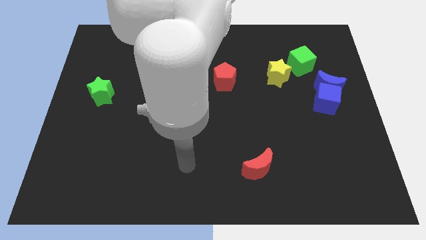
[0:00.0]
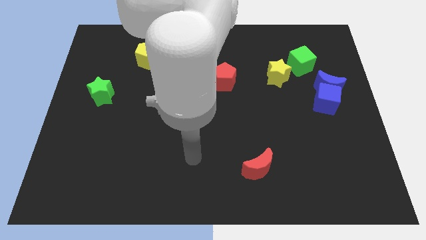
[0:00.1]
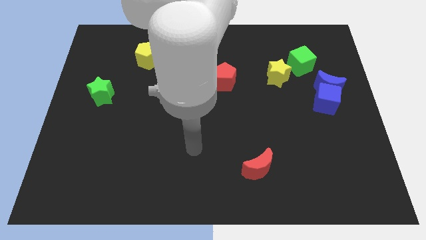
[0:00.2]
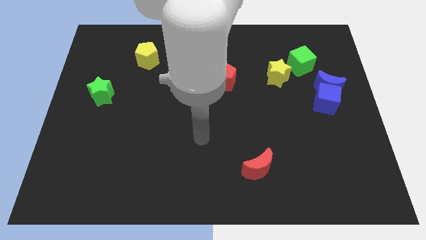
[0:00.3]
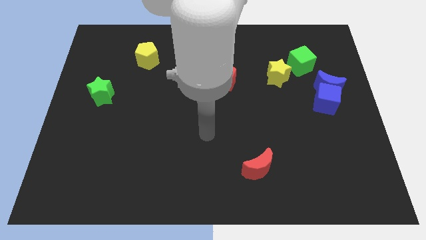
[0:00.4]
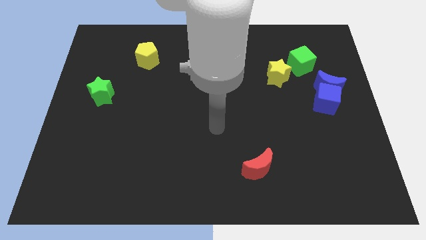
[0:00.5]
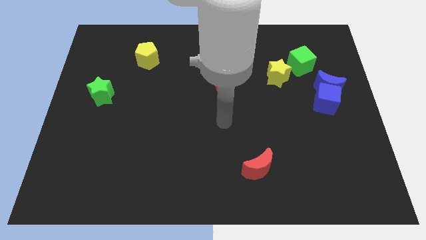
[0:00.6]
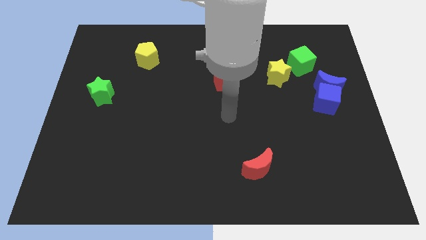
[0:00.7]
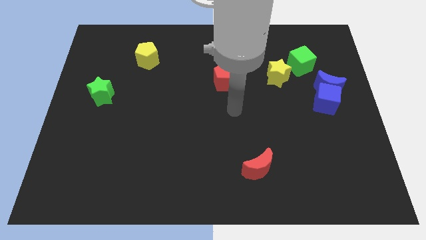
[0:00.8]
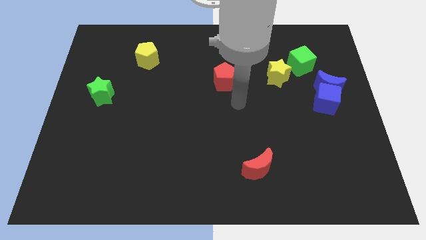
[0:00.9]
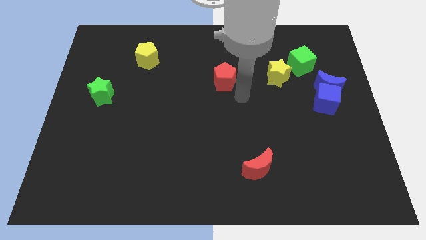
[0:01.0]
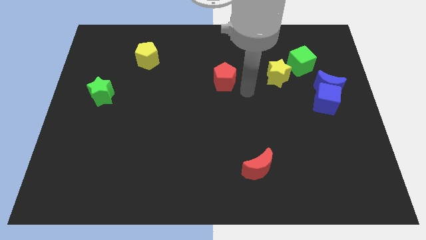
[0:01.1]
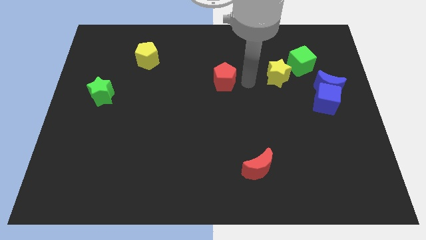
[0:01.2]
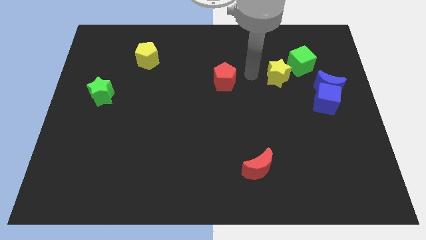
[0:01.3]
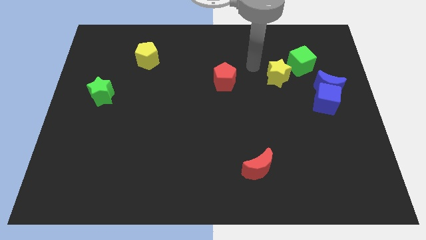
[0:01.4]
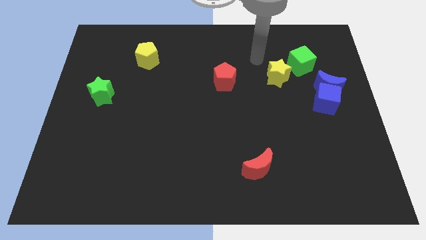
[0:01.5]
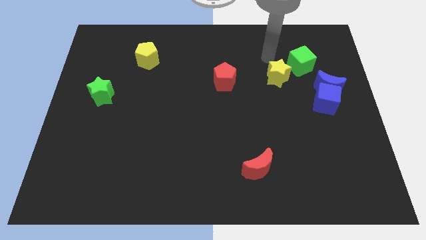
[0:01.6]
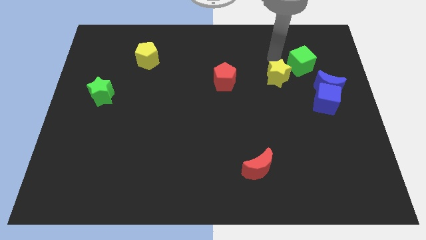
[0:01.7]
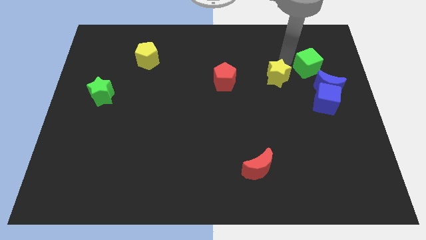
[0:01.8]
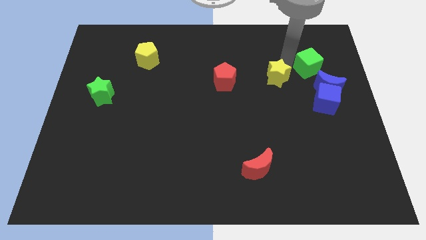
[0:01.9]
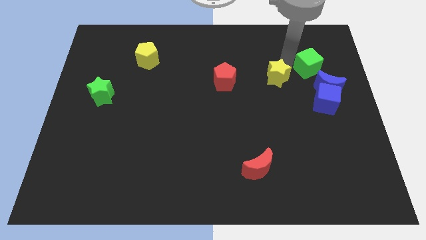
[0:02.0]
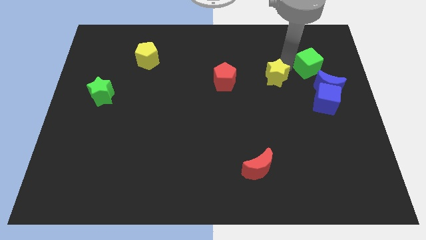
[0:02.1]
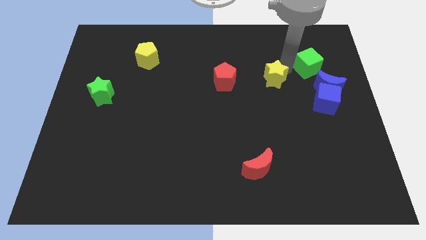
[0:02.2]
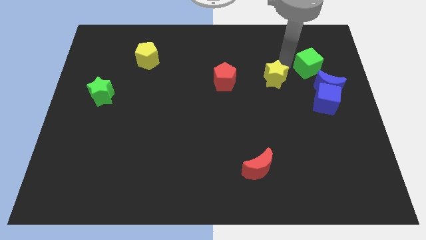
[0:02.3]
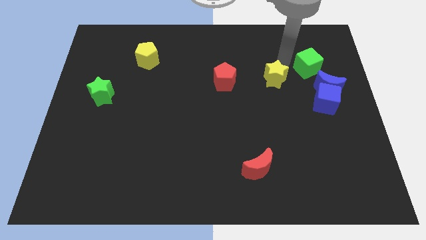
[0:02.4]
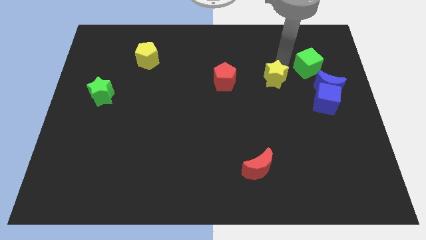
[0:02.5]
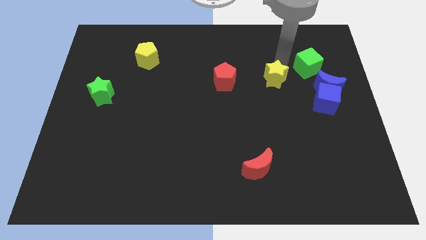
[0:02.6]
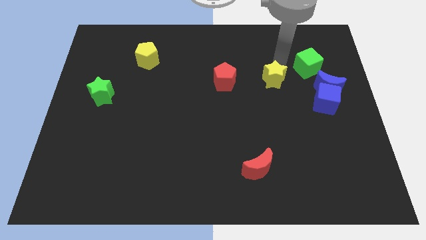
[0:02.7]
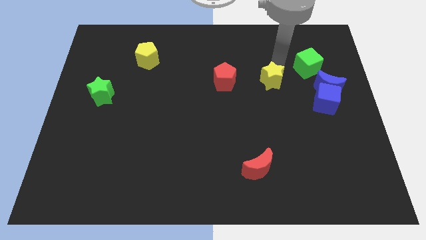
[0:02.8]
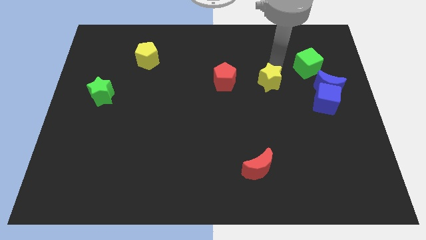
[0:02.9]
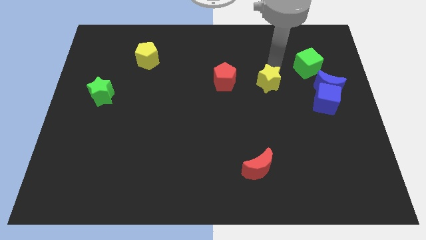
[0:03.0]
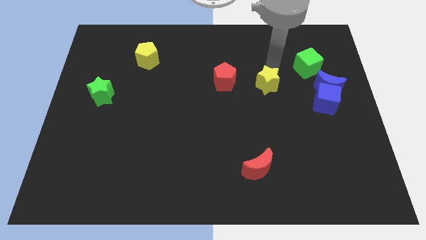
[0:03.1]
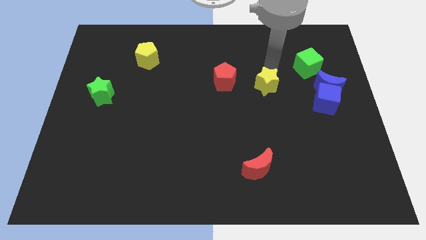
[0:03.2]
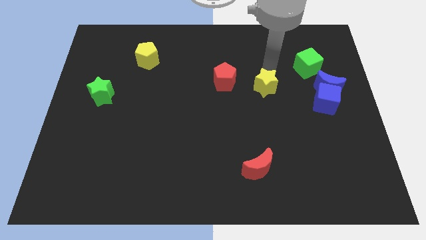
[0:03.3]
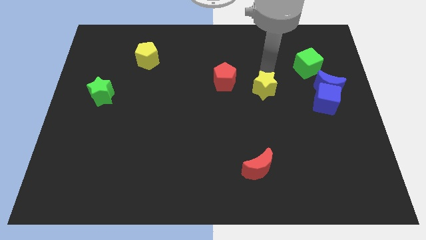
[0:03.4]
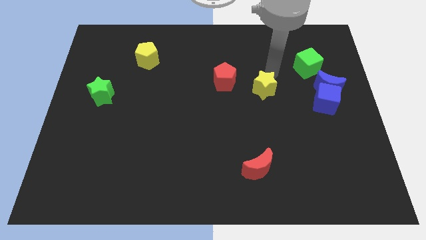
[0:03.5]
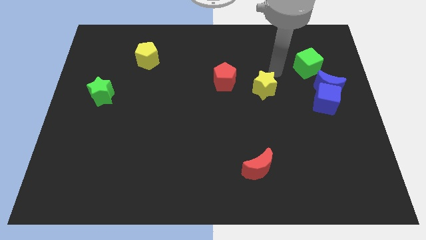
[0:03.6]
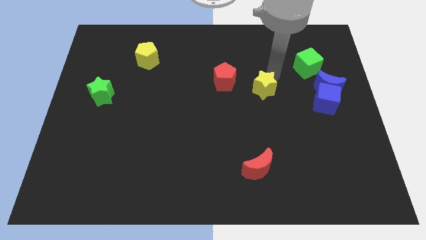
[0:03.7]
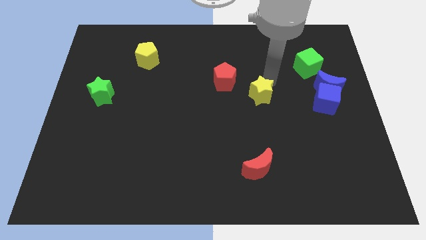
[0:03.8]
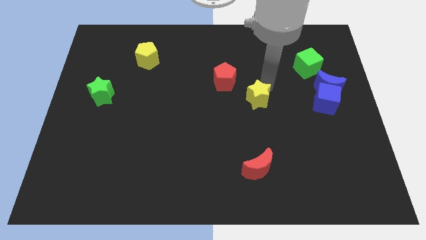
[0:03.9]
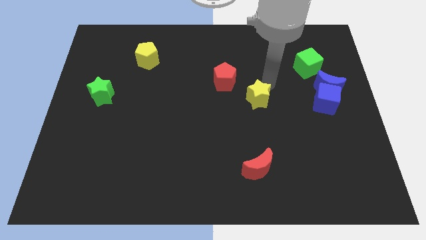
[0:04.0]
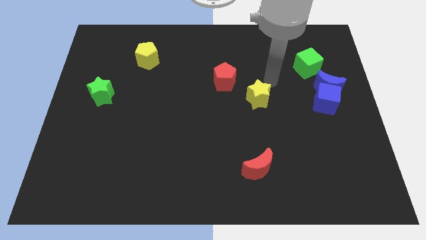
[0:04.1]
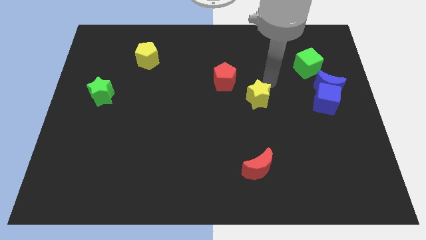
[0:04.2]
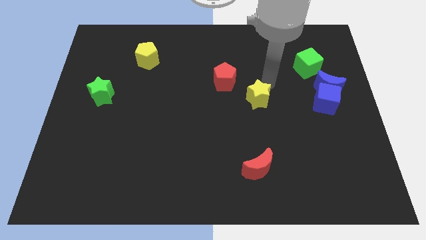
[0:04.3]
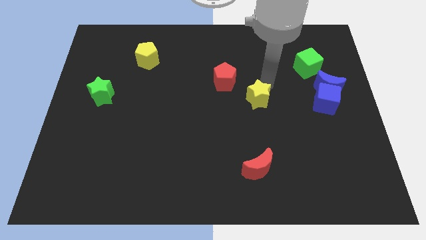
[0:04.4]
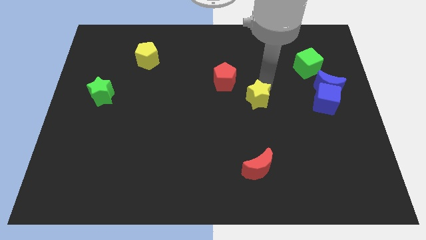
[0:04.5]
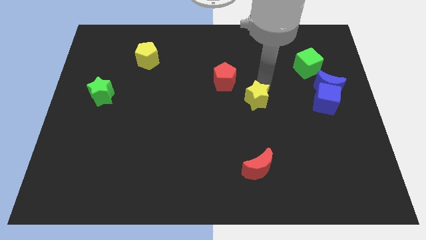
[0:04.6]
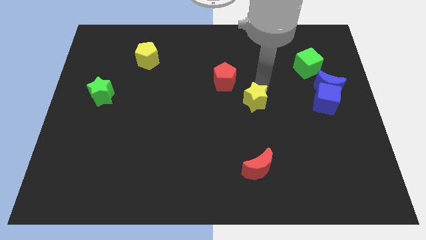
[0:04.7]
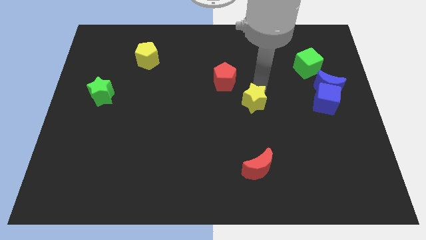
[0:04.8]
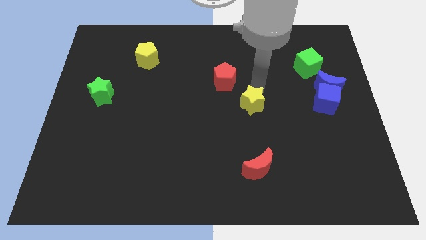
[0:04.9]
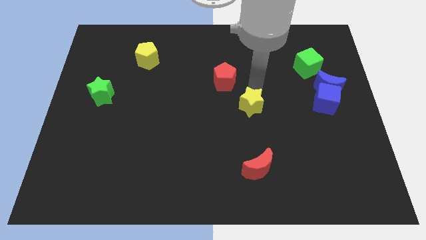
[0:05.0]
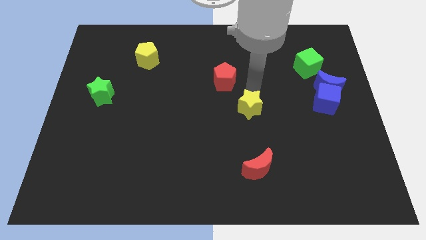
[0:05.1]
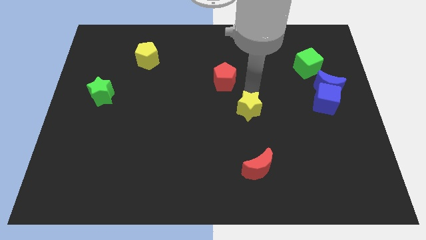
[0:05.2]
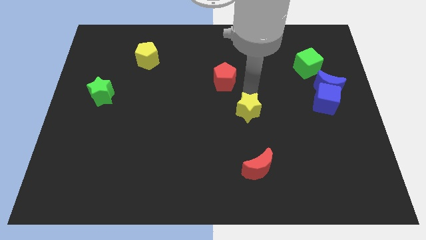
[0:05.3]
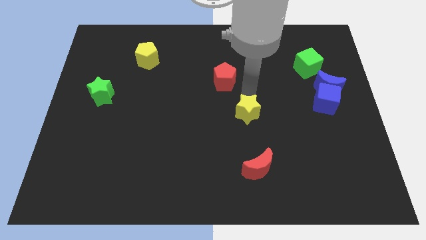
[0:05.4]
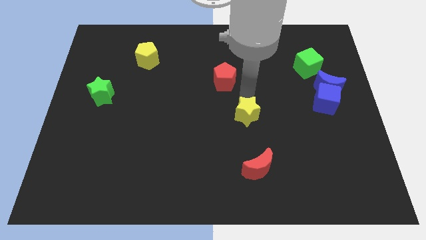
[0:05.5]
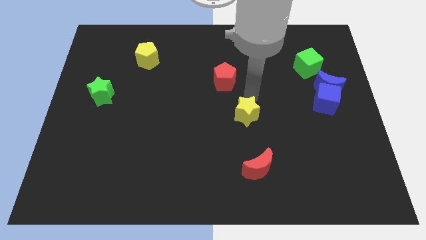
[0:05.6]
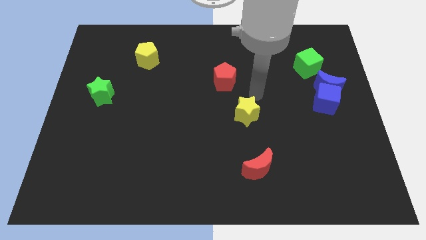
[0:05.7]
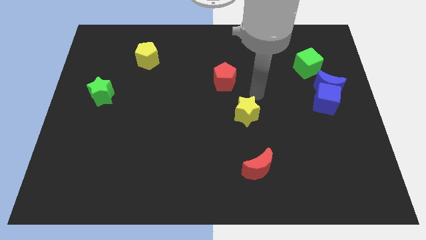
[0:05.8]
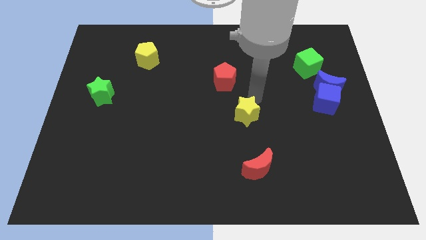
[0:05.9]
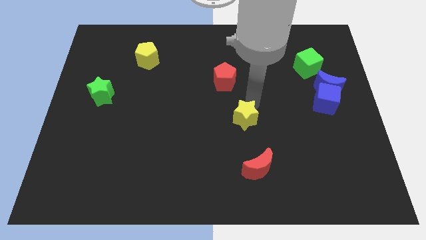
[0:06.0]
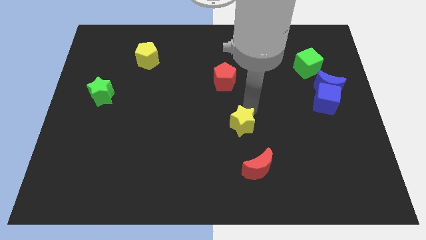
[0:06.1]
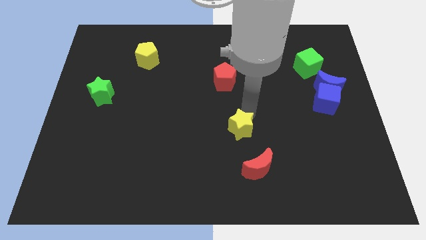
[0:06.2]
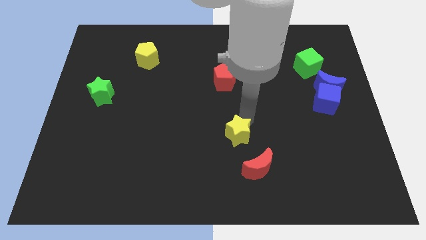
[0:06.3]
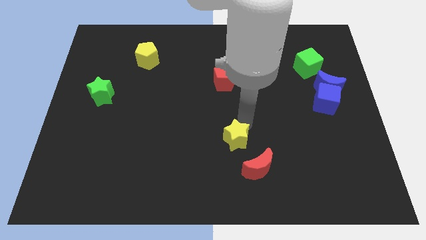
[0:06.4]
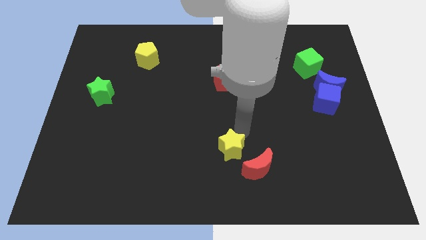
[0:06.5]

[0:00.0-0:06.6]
slide the yellow star to the left of the red moon
